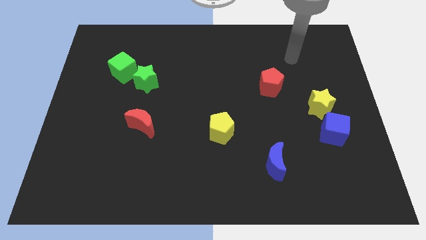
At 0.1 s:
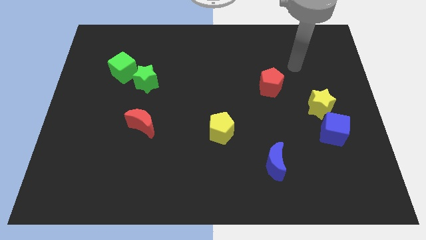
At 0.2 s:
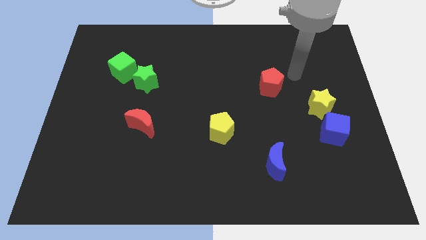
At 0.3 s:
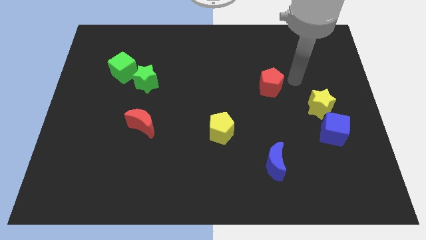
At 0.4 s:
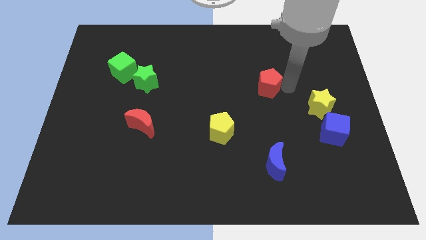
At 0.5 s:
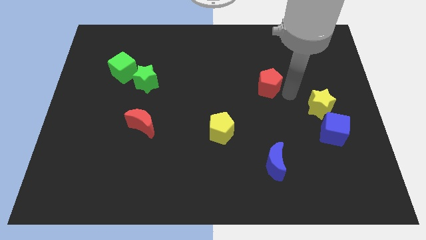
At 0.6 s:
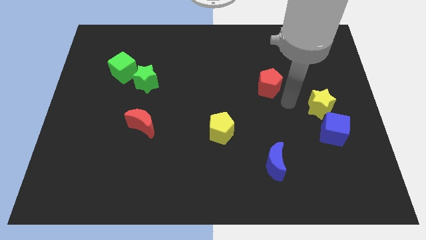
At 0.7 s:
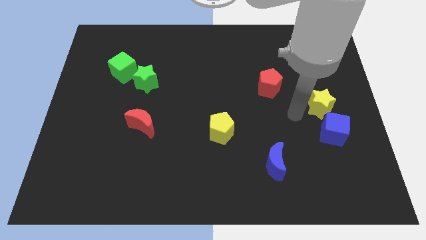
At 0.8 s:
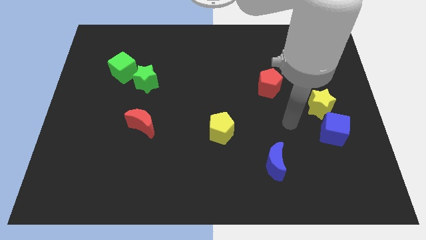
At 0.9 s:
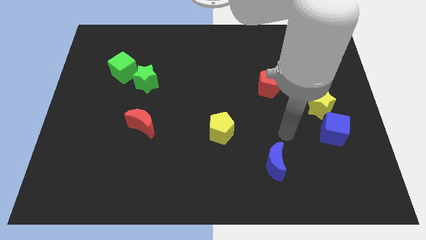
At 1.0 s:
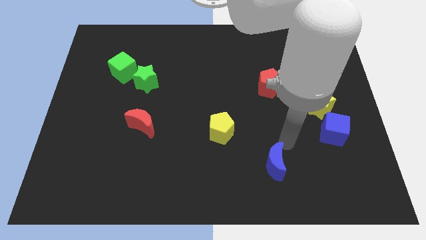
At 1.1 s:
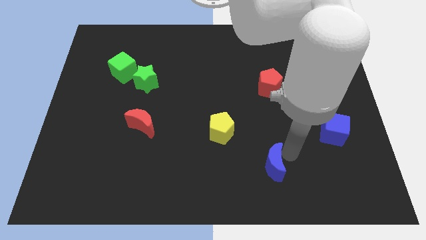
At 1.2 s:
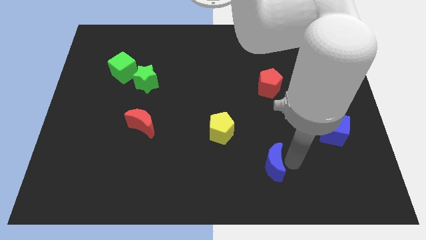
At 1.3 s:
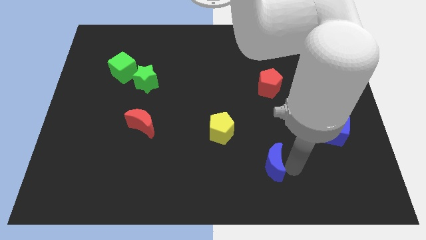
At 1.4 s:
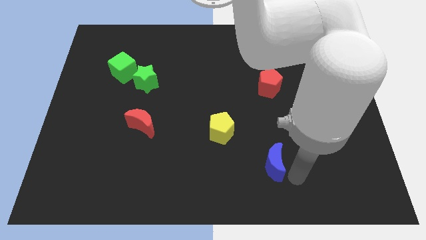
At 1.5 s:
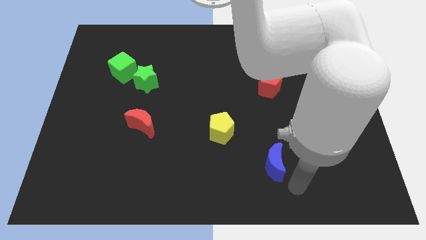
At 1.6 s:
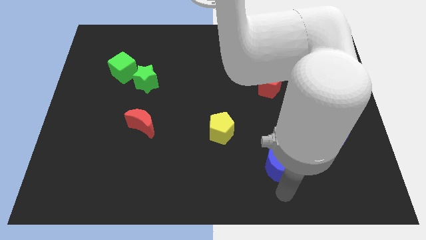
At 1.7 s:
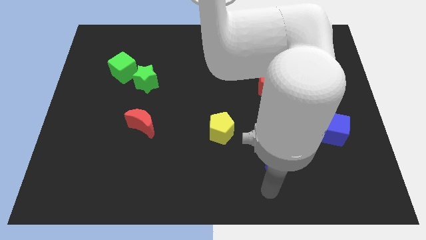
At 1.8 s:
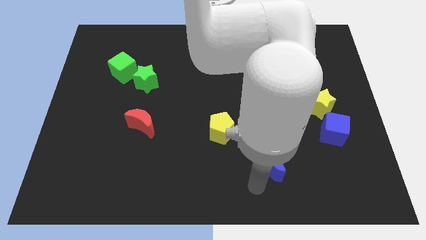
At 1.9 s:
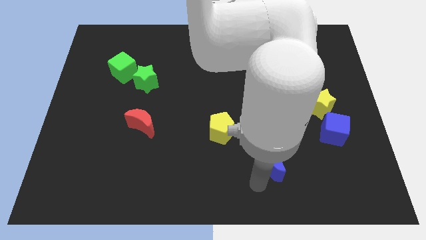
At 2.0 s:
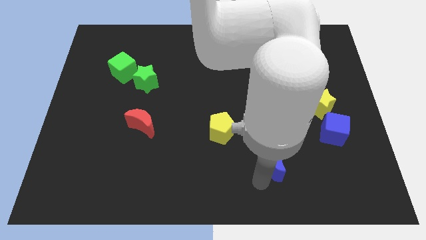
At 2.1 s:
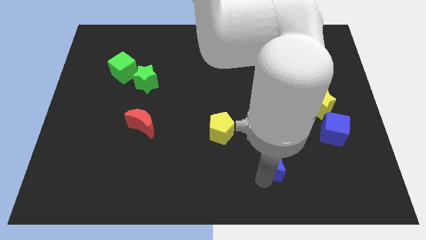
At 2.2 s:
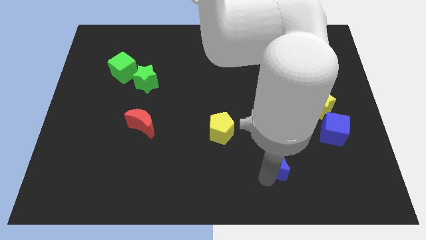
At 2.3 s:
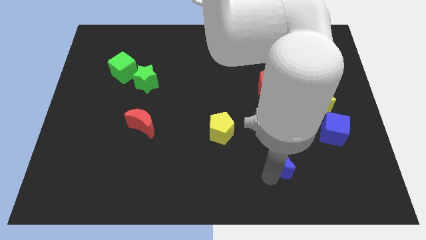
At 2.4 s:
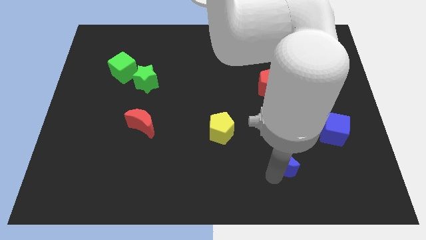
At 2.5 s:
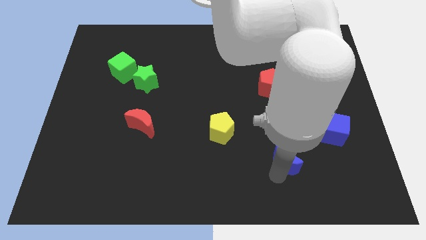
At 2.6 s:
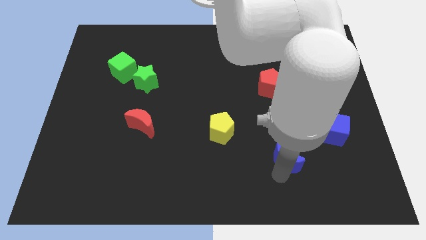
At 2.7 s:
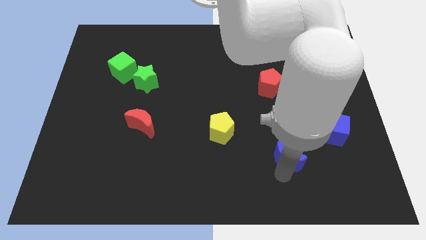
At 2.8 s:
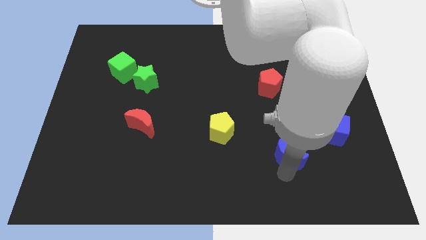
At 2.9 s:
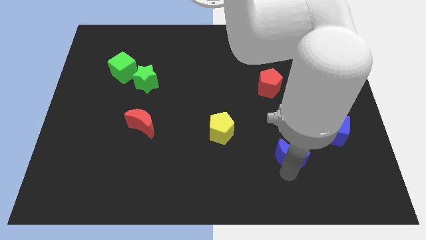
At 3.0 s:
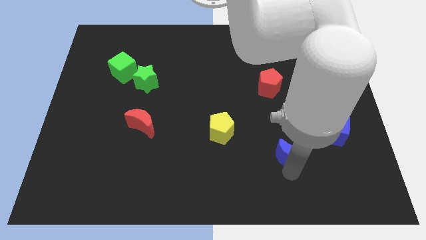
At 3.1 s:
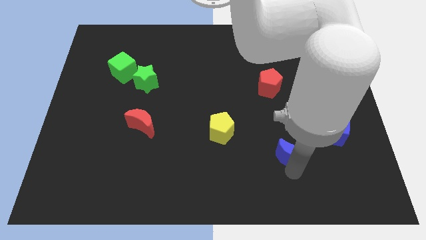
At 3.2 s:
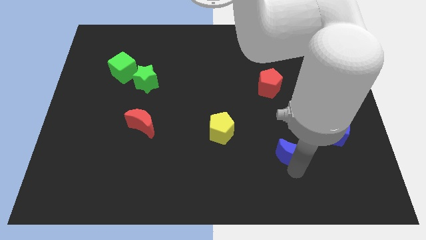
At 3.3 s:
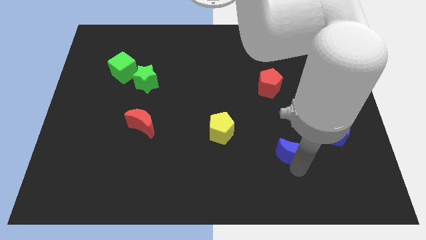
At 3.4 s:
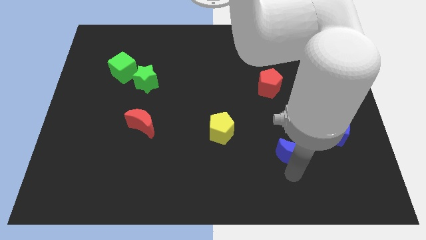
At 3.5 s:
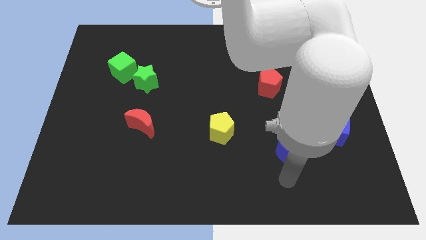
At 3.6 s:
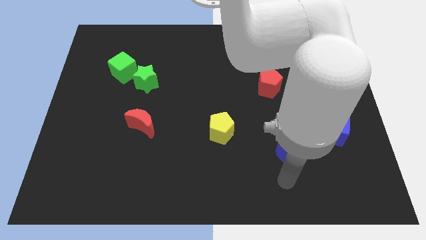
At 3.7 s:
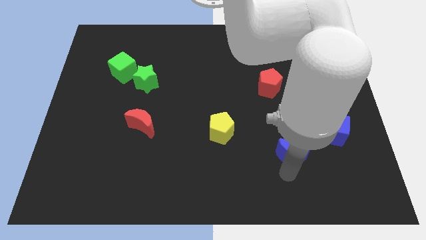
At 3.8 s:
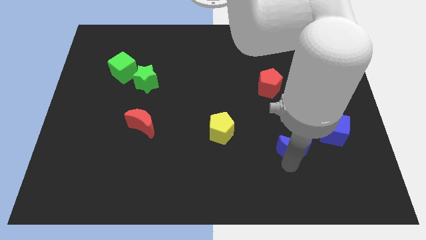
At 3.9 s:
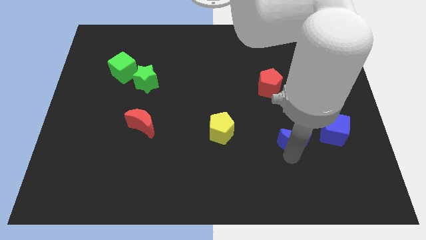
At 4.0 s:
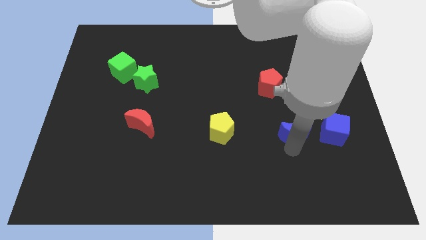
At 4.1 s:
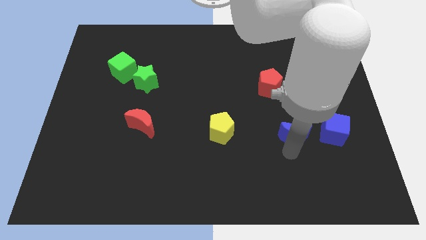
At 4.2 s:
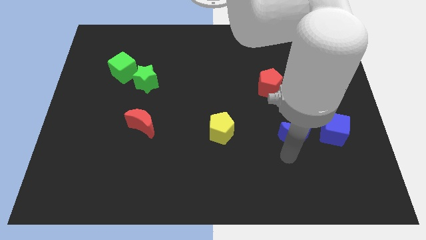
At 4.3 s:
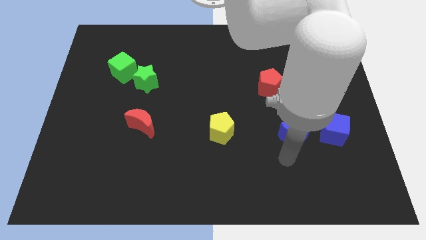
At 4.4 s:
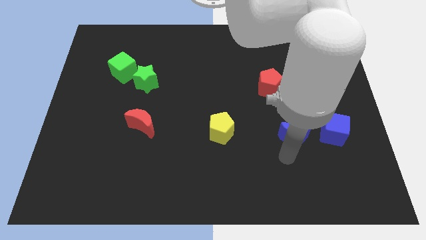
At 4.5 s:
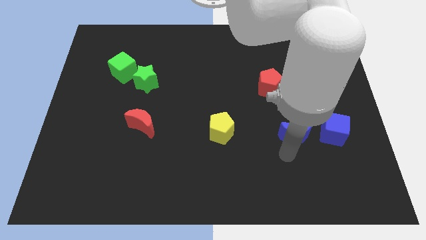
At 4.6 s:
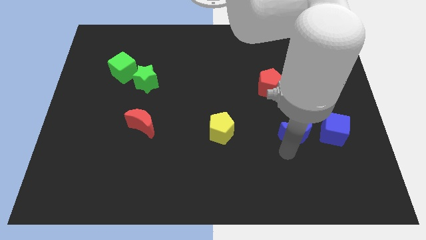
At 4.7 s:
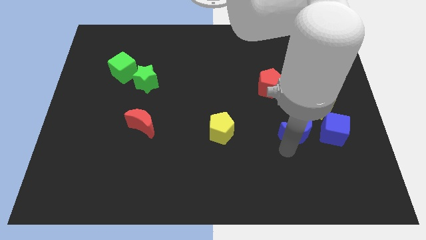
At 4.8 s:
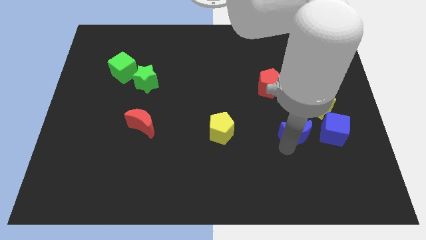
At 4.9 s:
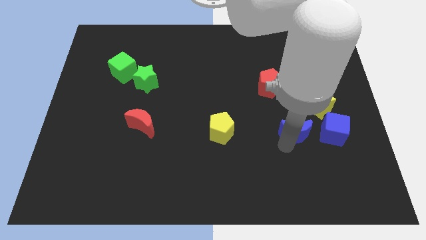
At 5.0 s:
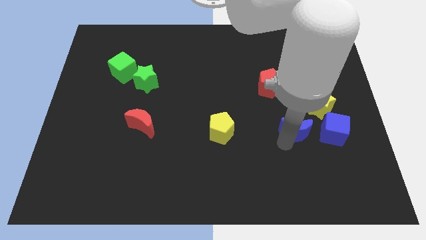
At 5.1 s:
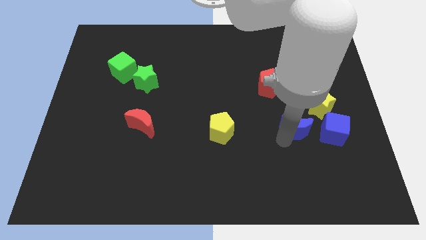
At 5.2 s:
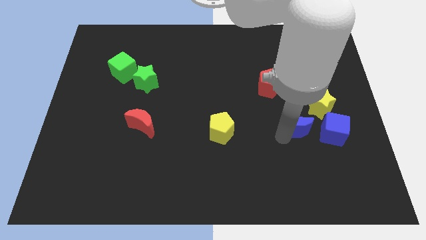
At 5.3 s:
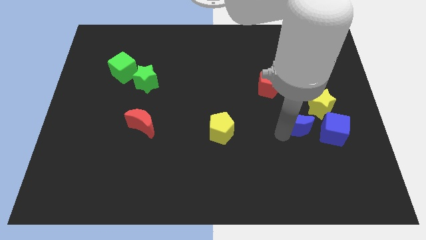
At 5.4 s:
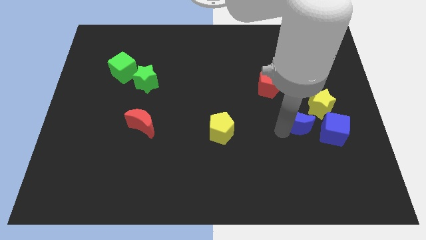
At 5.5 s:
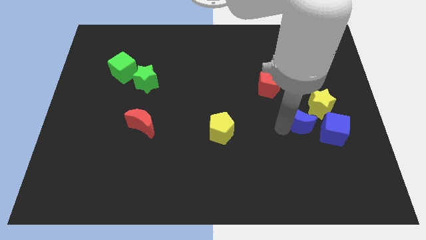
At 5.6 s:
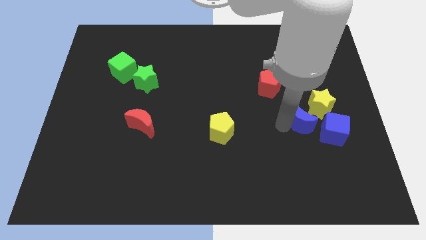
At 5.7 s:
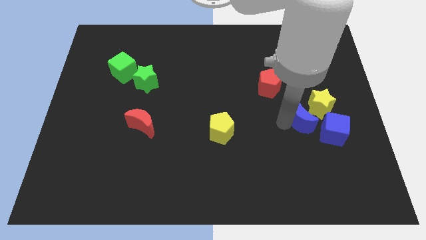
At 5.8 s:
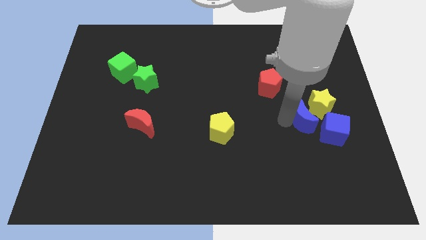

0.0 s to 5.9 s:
move the blue moon next to the yellow star

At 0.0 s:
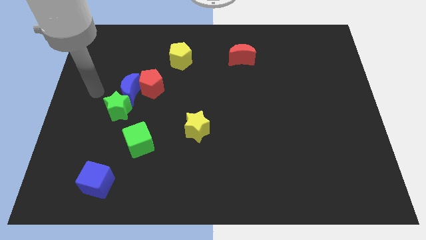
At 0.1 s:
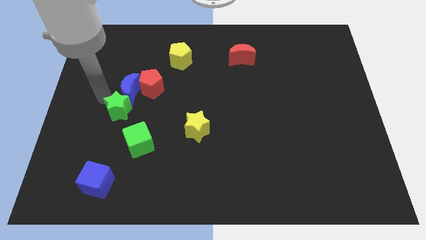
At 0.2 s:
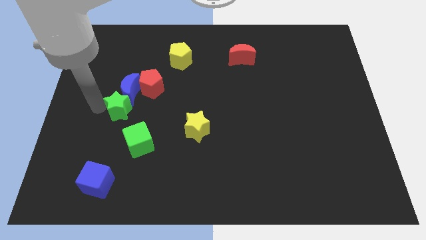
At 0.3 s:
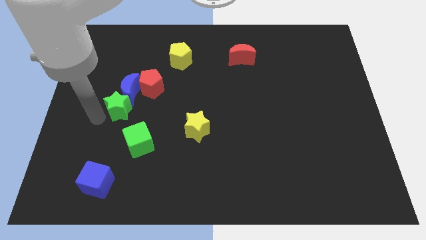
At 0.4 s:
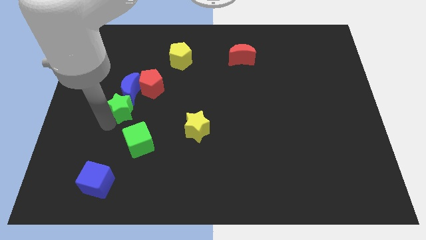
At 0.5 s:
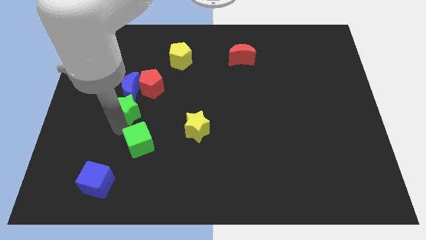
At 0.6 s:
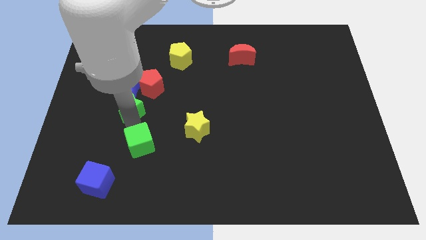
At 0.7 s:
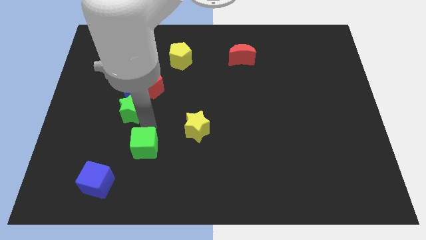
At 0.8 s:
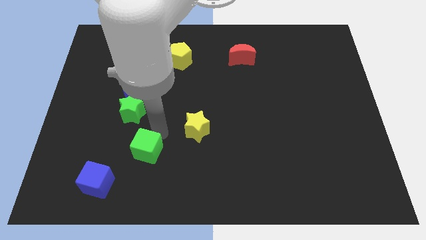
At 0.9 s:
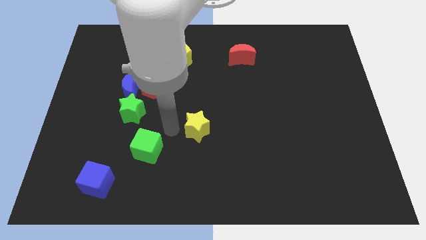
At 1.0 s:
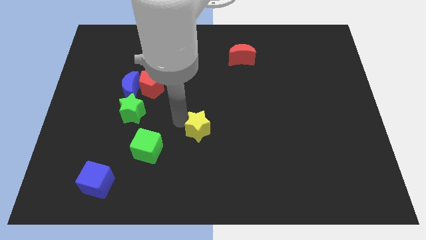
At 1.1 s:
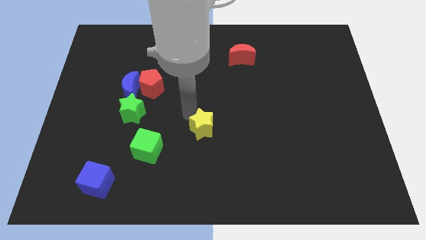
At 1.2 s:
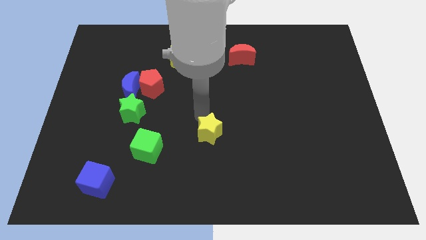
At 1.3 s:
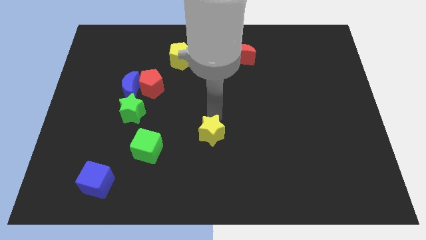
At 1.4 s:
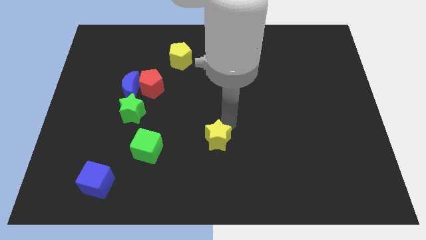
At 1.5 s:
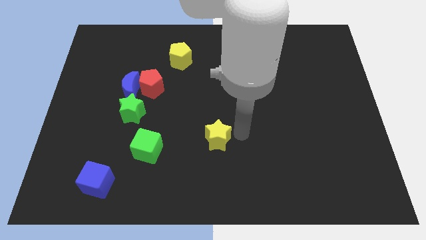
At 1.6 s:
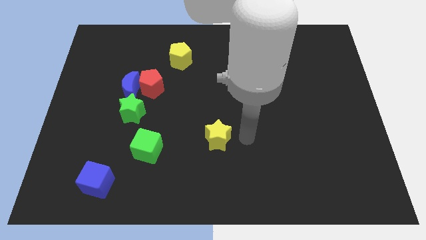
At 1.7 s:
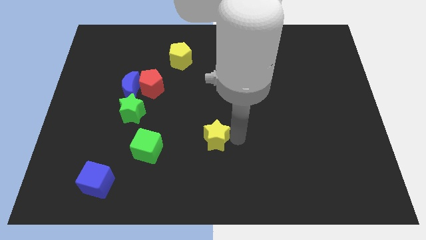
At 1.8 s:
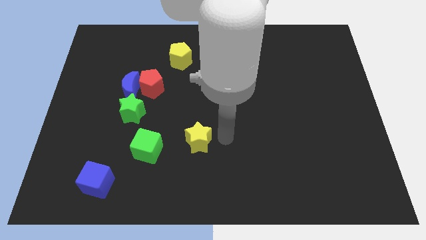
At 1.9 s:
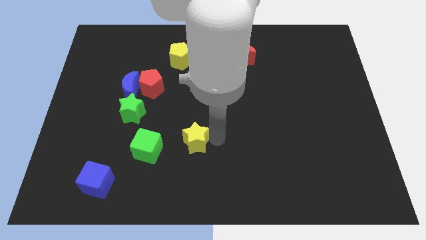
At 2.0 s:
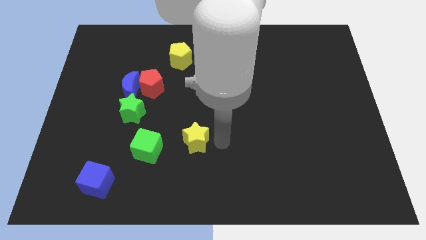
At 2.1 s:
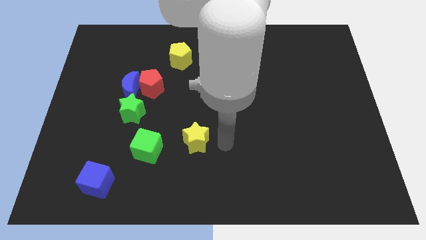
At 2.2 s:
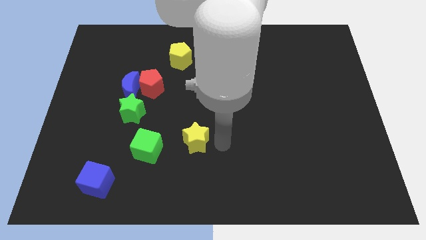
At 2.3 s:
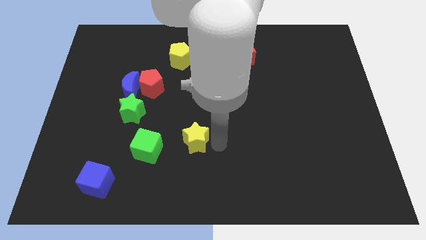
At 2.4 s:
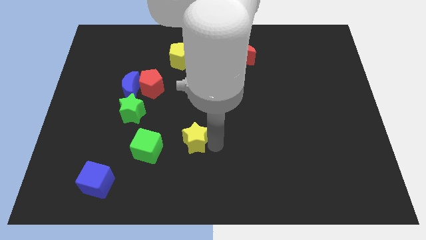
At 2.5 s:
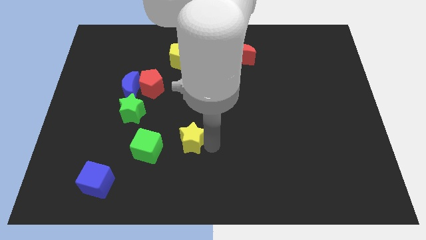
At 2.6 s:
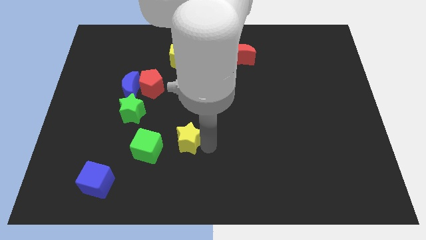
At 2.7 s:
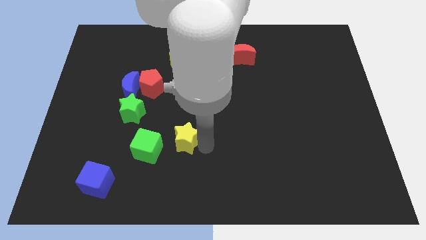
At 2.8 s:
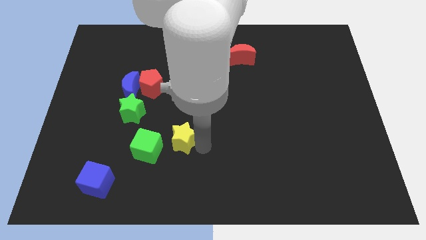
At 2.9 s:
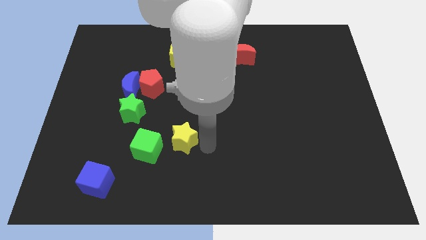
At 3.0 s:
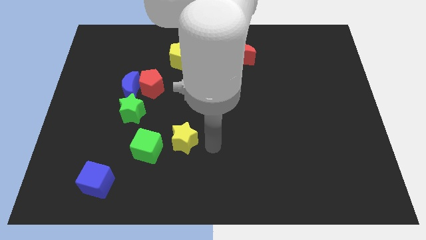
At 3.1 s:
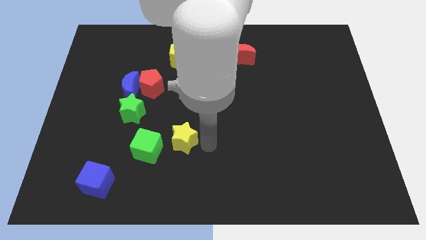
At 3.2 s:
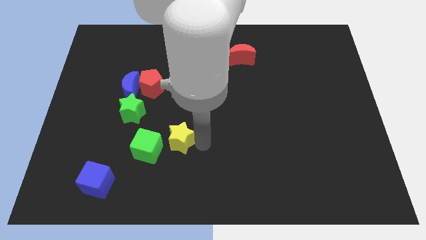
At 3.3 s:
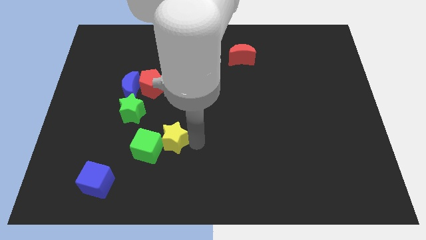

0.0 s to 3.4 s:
move the yellow star towards the green cube
